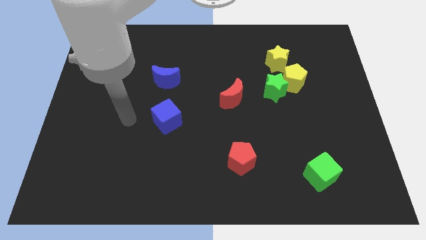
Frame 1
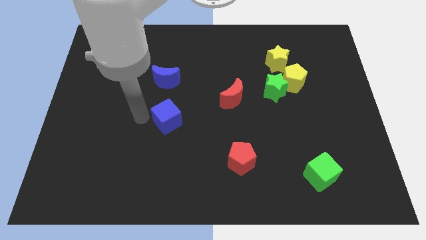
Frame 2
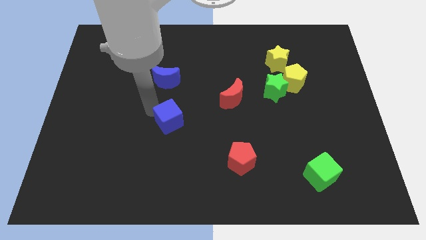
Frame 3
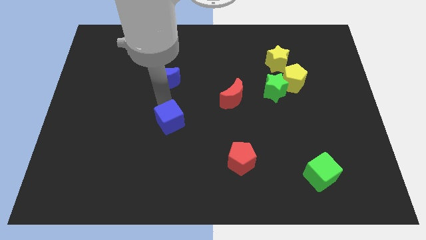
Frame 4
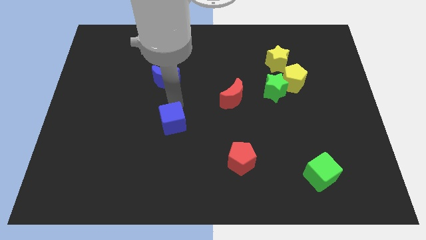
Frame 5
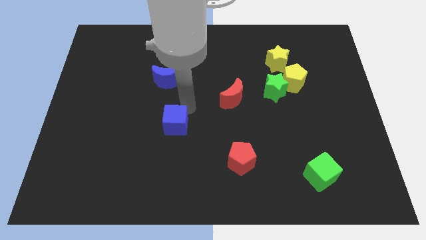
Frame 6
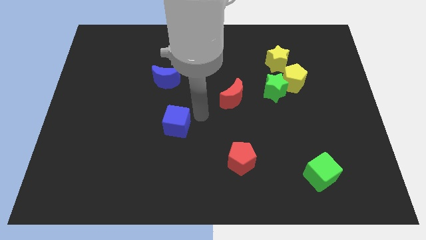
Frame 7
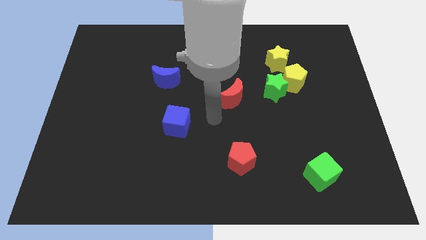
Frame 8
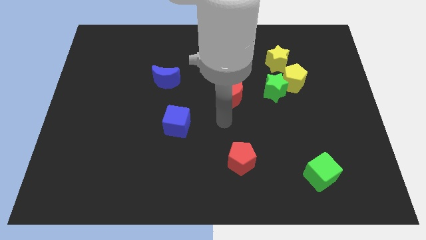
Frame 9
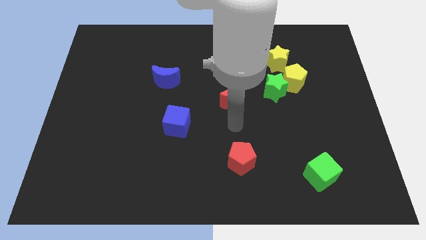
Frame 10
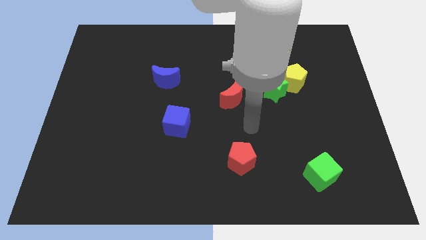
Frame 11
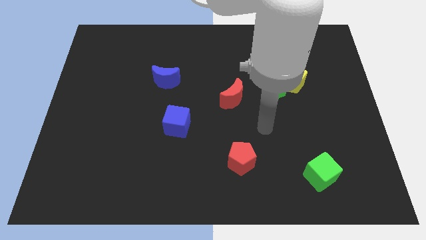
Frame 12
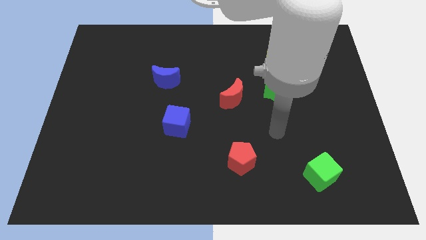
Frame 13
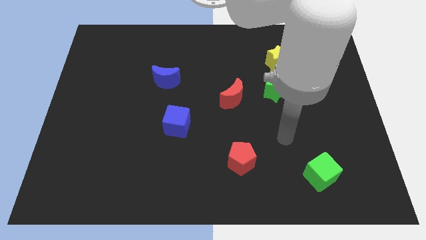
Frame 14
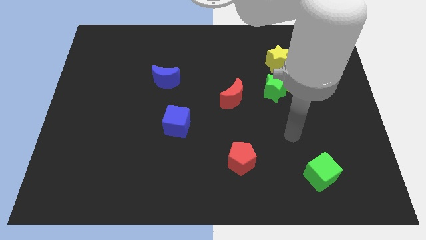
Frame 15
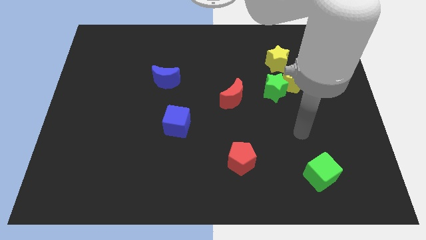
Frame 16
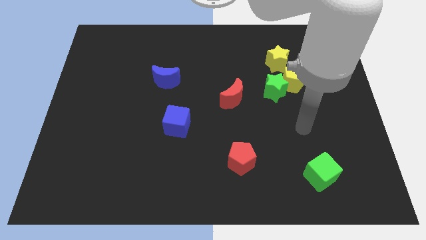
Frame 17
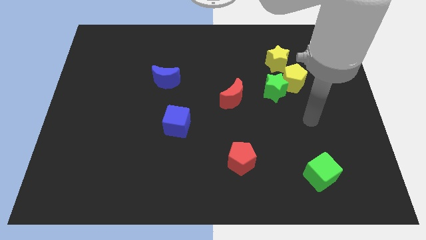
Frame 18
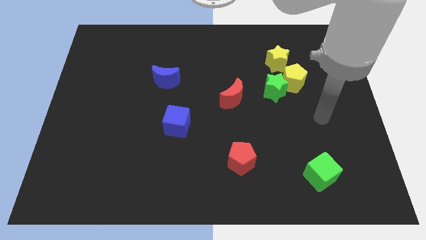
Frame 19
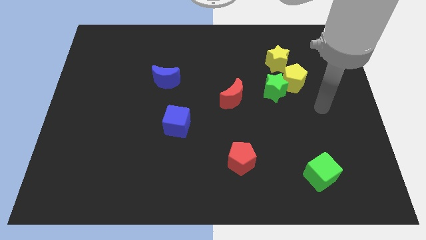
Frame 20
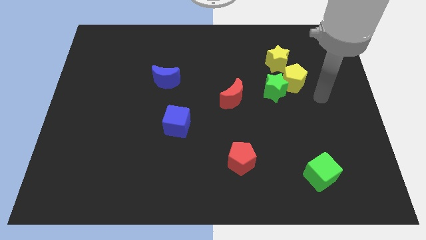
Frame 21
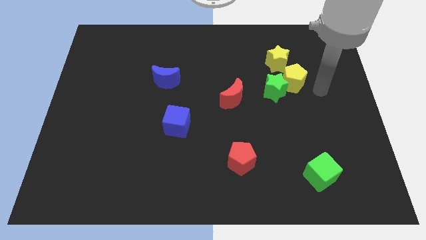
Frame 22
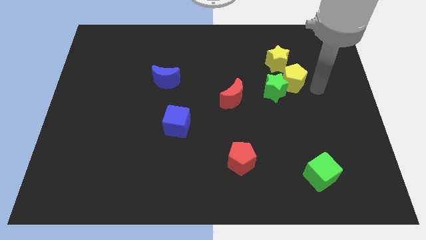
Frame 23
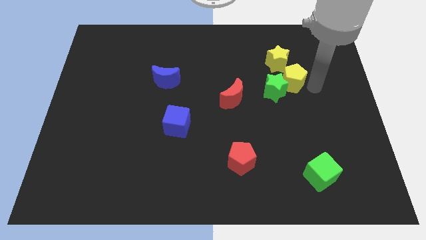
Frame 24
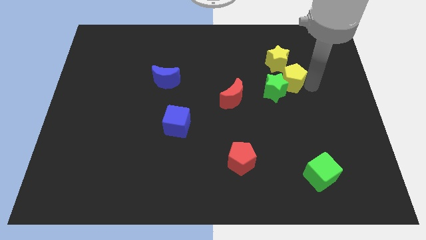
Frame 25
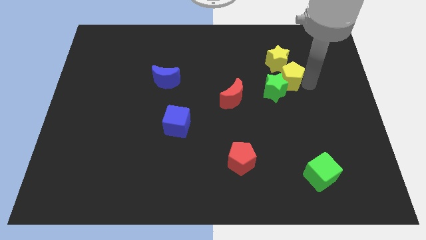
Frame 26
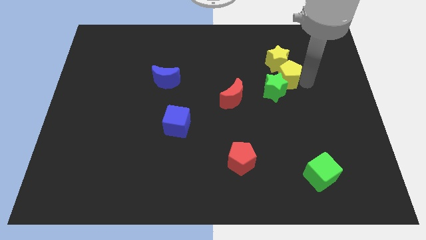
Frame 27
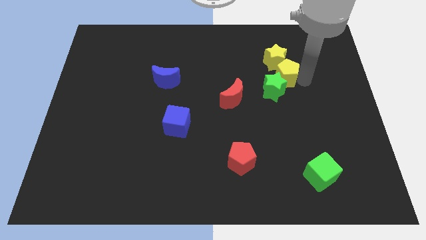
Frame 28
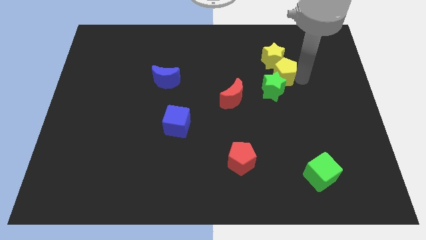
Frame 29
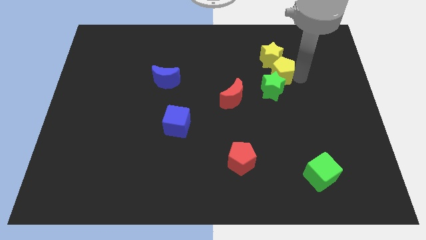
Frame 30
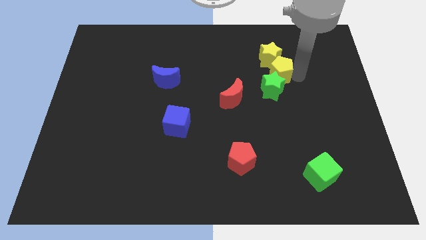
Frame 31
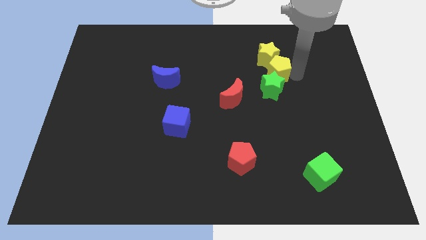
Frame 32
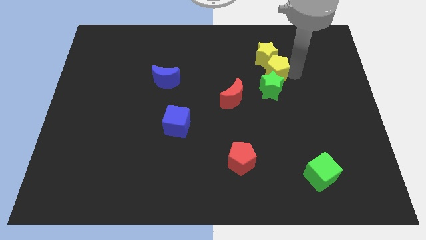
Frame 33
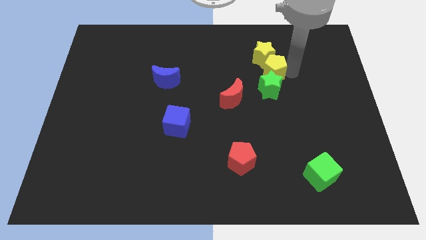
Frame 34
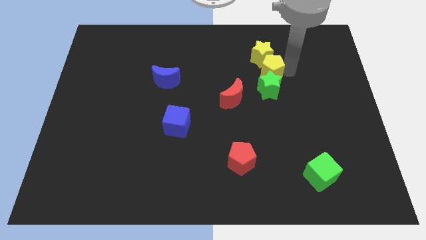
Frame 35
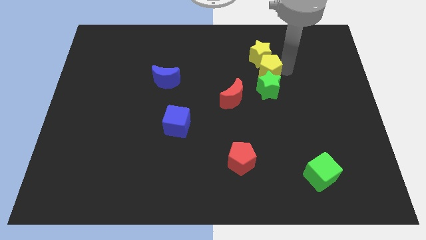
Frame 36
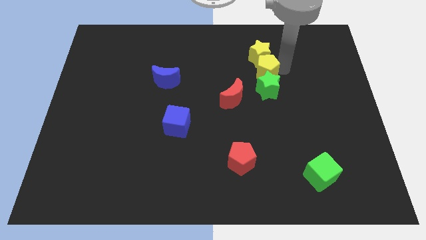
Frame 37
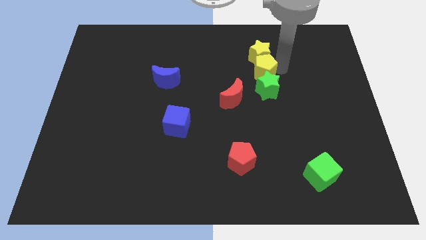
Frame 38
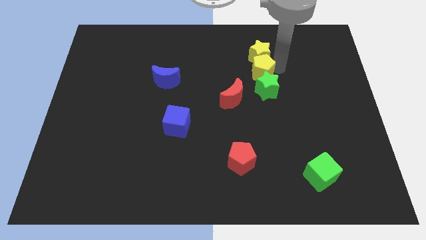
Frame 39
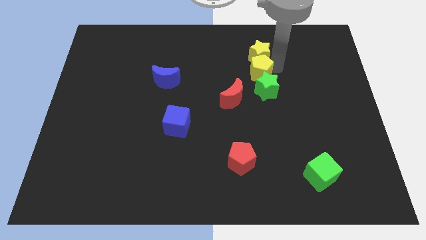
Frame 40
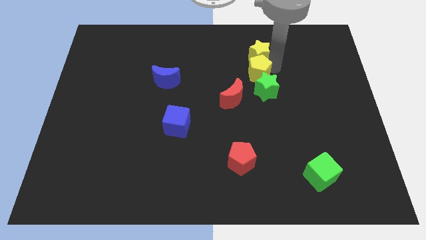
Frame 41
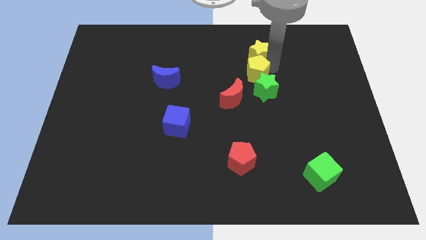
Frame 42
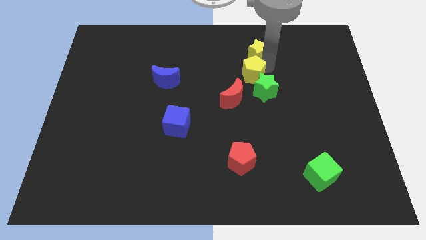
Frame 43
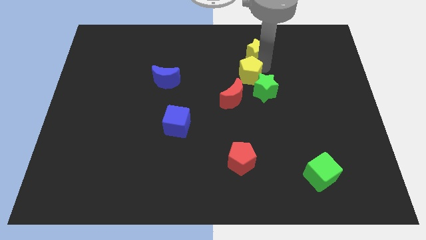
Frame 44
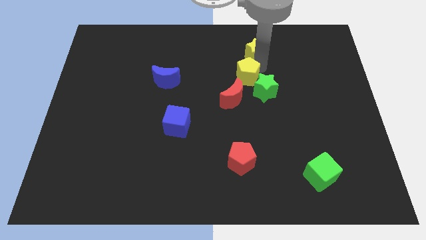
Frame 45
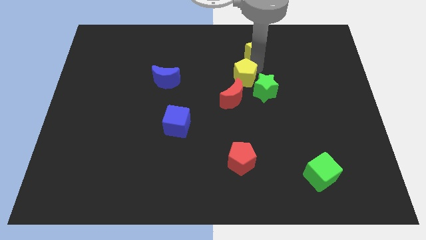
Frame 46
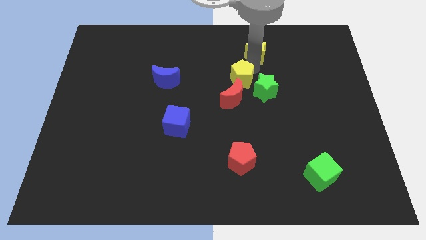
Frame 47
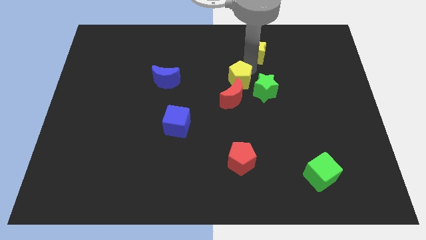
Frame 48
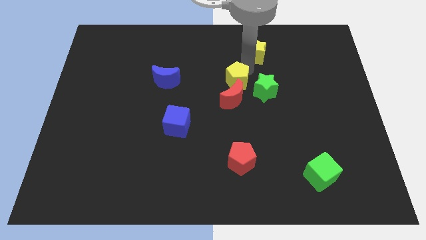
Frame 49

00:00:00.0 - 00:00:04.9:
push the yellow pentagon close to the red moon

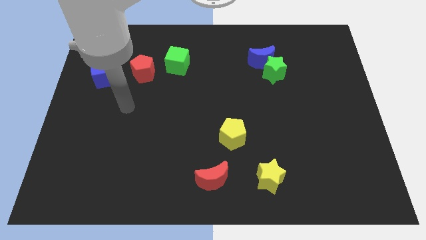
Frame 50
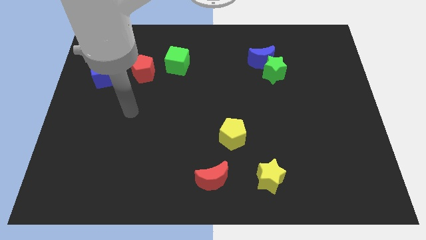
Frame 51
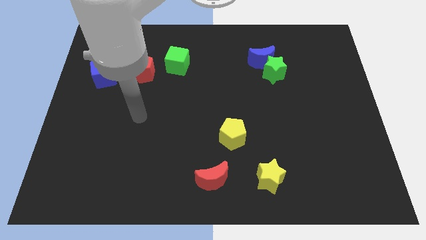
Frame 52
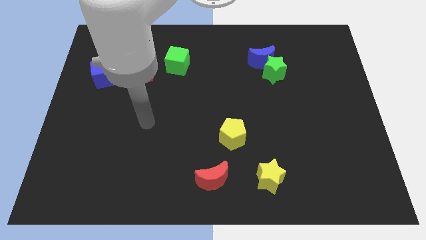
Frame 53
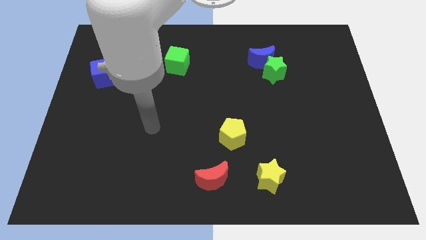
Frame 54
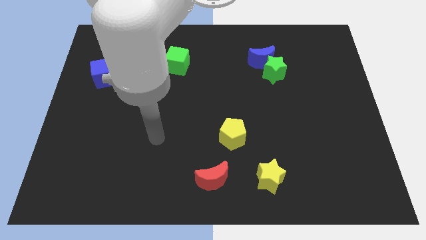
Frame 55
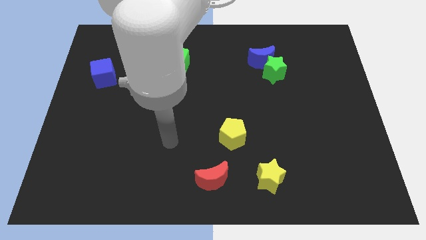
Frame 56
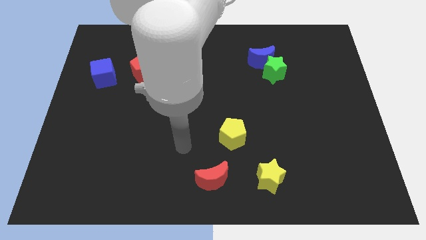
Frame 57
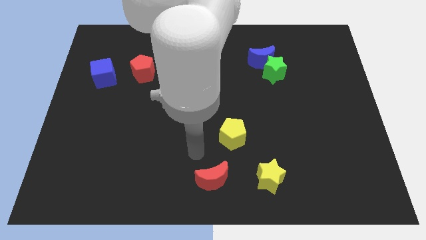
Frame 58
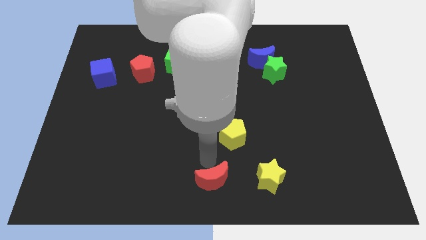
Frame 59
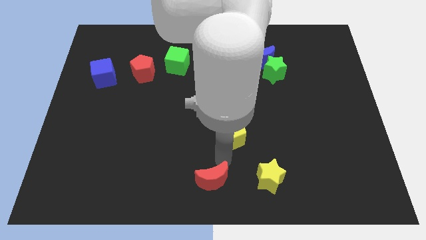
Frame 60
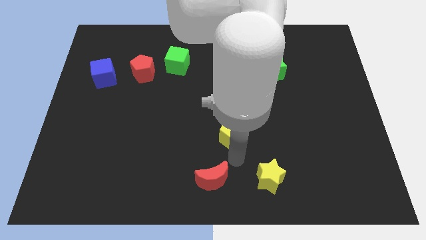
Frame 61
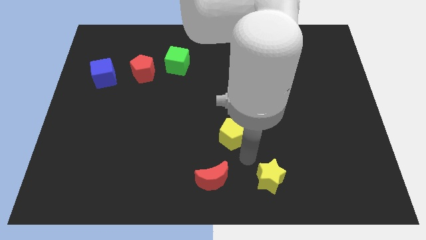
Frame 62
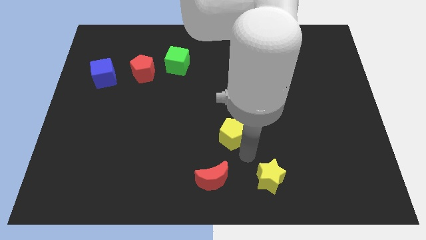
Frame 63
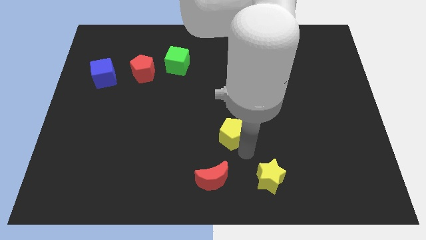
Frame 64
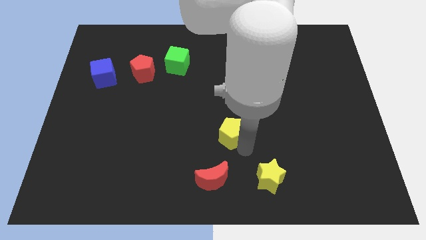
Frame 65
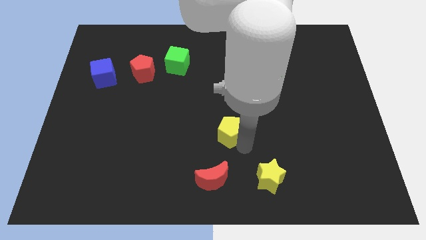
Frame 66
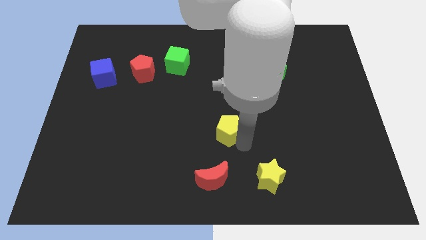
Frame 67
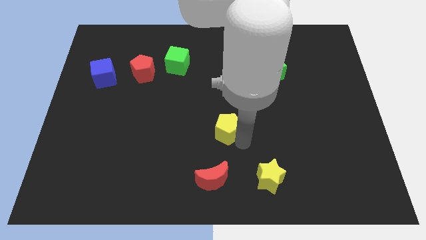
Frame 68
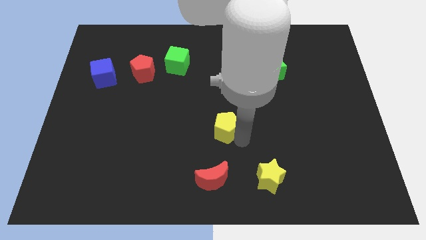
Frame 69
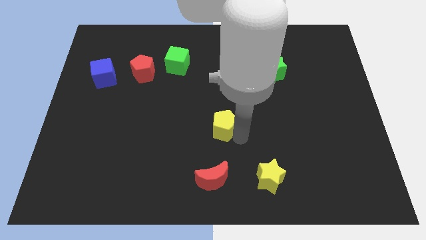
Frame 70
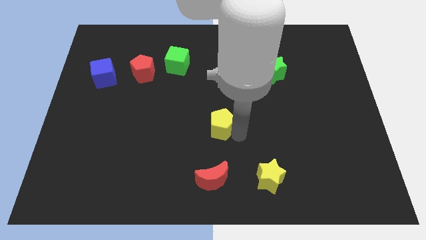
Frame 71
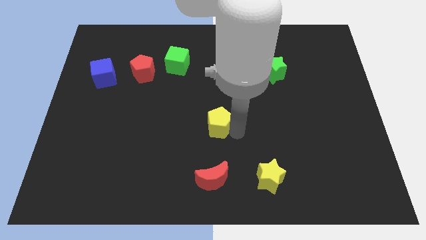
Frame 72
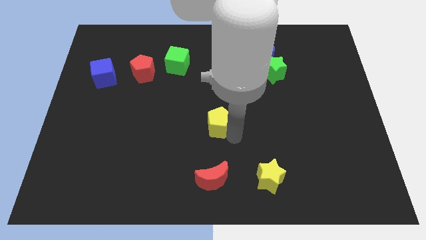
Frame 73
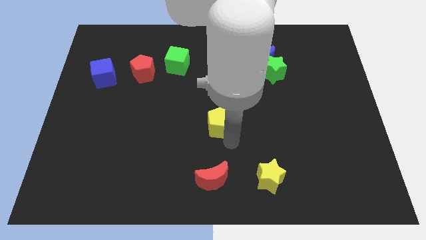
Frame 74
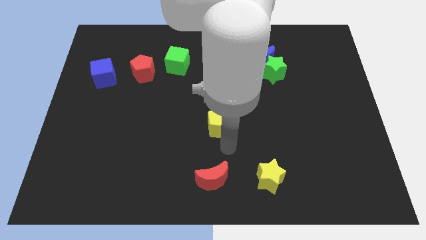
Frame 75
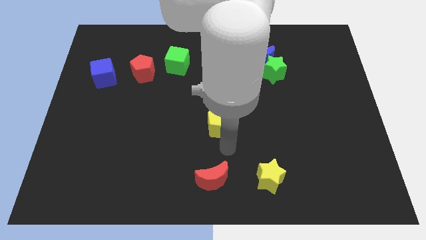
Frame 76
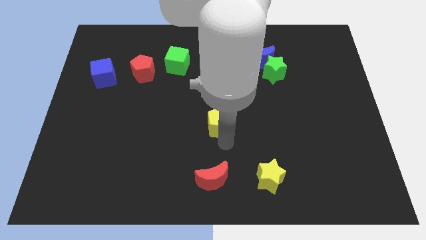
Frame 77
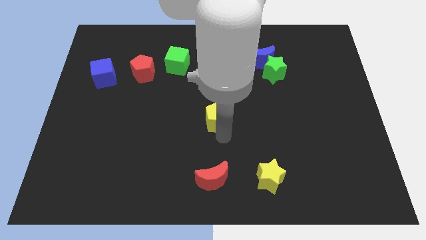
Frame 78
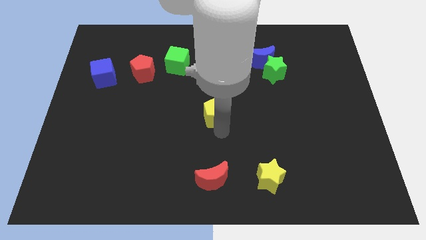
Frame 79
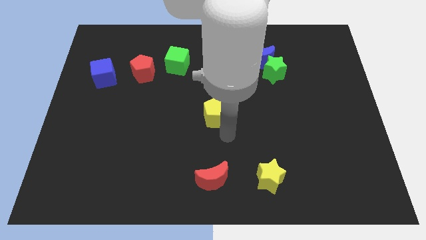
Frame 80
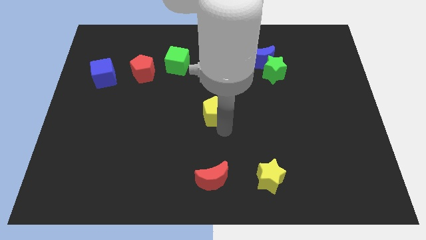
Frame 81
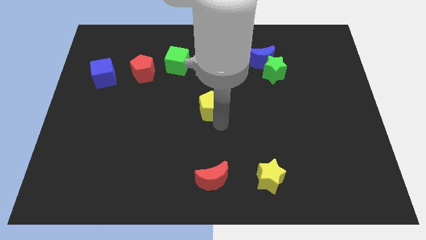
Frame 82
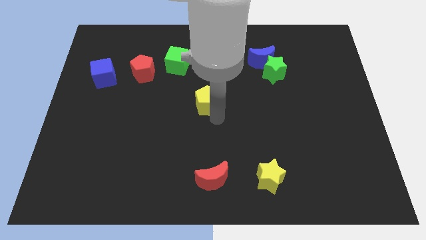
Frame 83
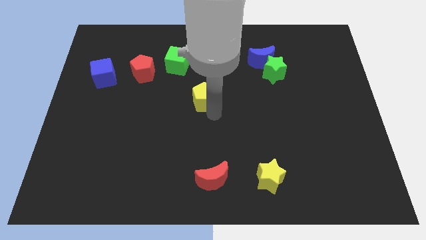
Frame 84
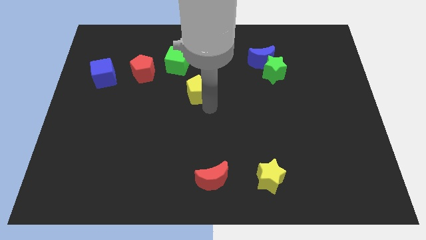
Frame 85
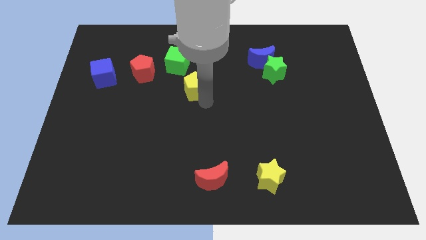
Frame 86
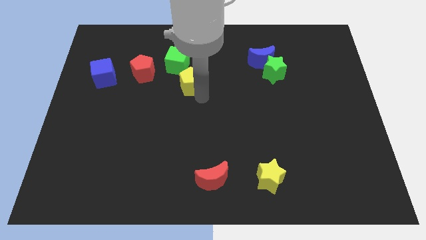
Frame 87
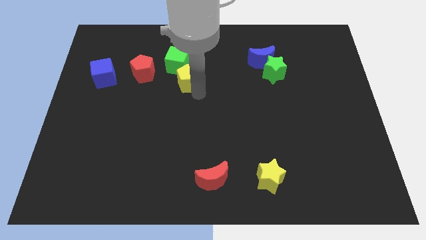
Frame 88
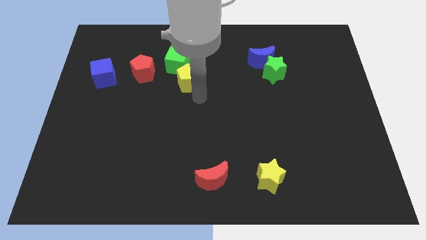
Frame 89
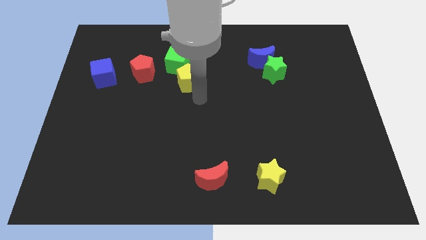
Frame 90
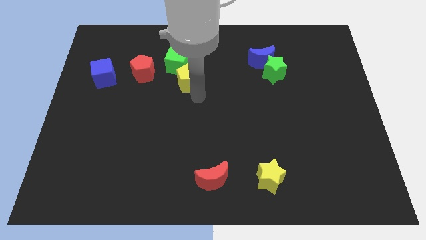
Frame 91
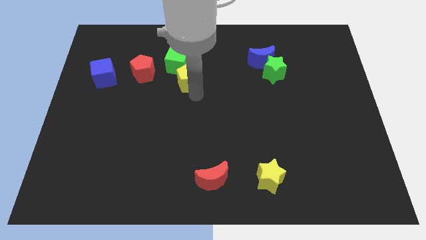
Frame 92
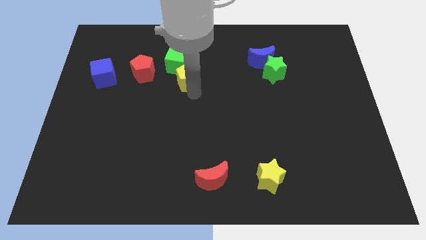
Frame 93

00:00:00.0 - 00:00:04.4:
put the yellow pentagon next to the green cube
